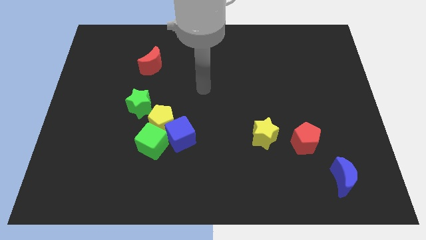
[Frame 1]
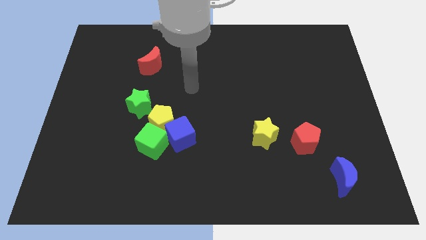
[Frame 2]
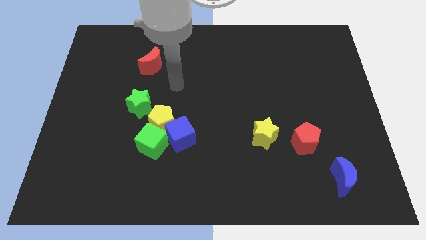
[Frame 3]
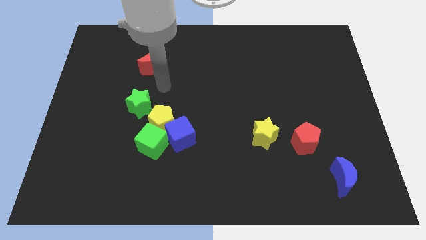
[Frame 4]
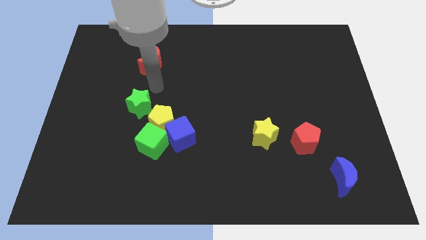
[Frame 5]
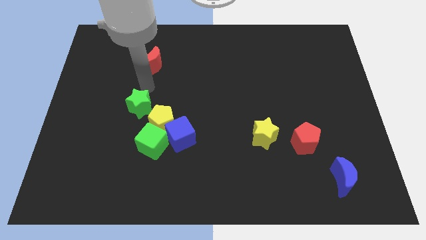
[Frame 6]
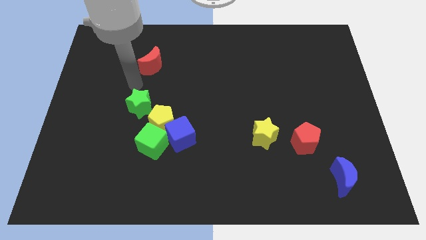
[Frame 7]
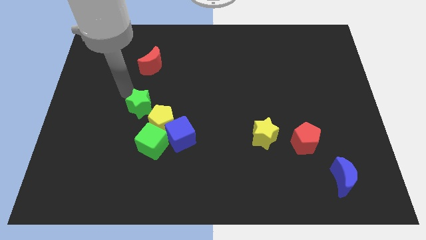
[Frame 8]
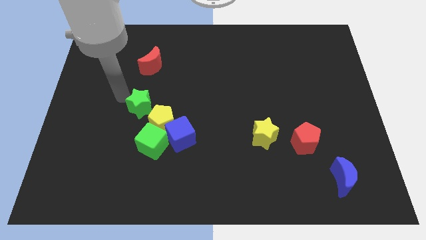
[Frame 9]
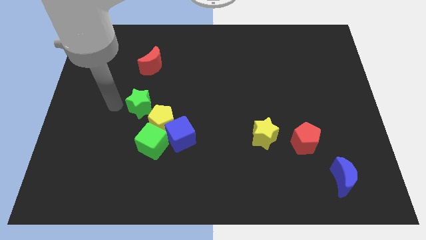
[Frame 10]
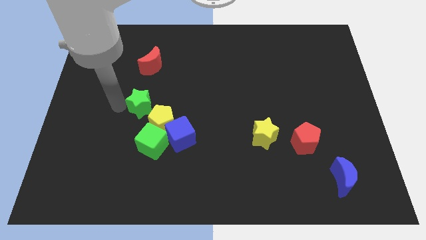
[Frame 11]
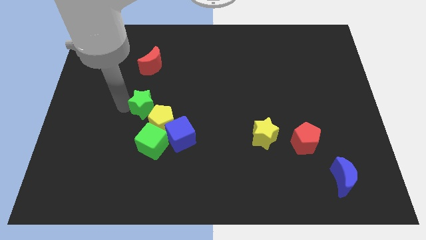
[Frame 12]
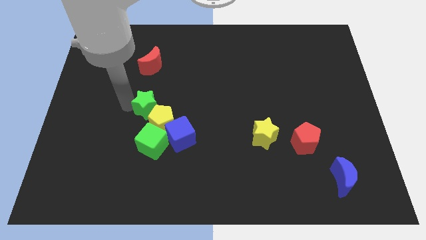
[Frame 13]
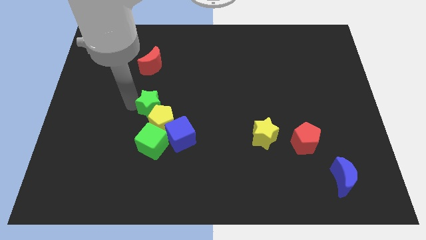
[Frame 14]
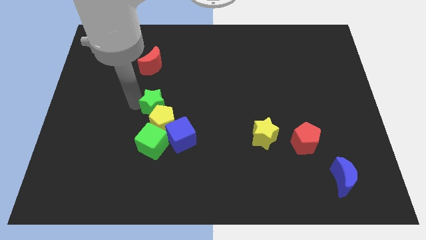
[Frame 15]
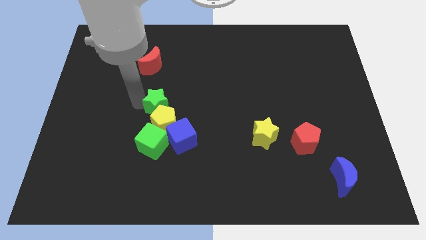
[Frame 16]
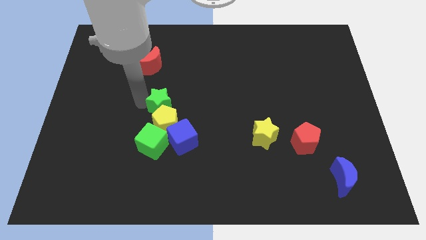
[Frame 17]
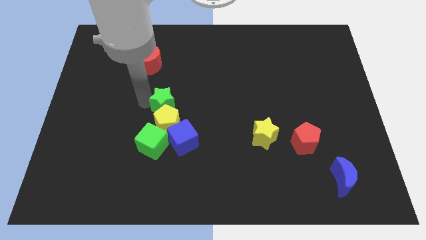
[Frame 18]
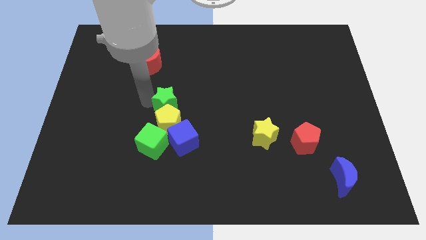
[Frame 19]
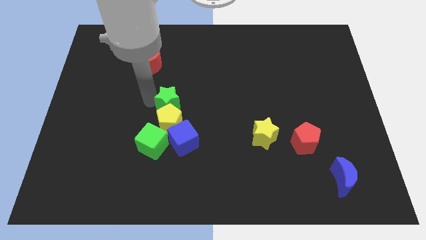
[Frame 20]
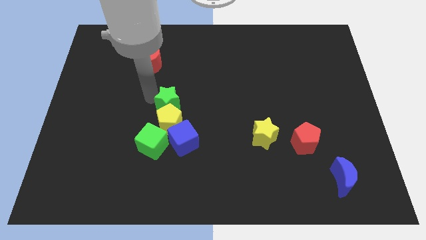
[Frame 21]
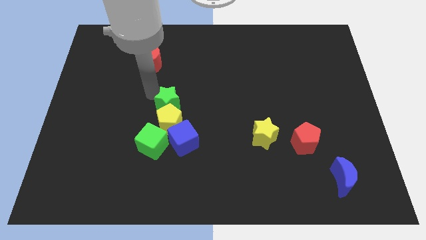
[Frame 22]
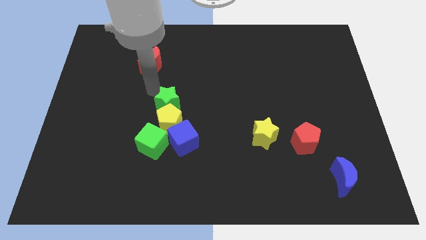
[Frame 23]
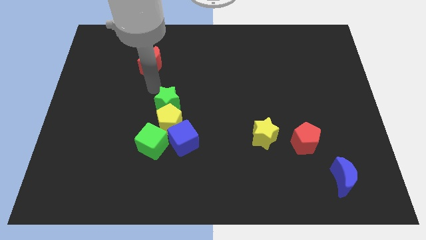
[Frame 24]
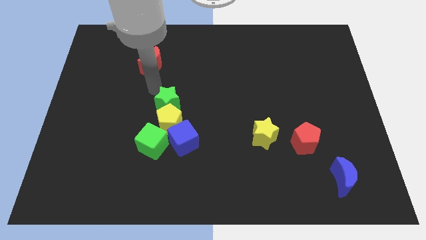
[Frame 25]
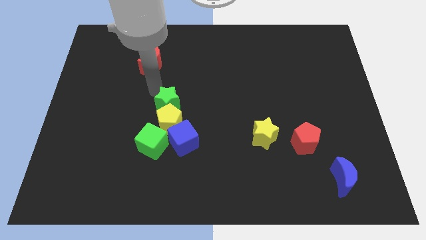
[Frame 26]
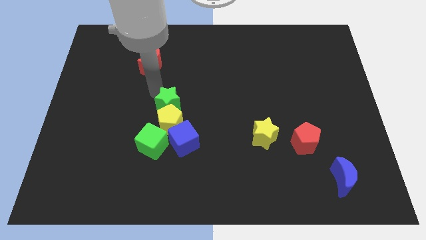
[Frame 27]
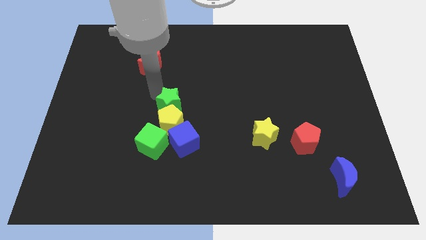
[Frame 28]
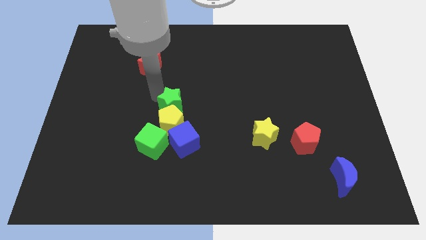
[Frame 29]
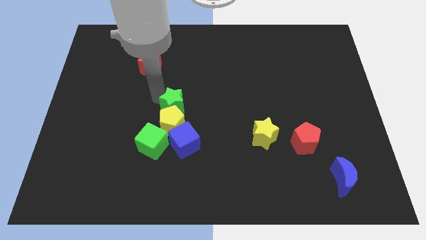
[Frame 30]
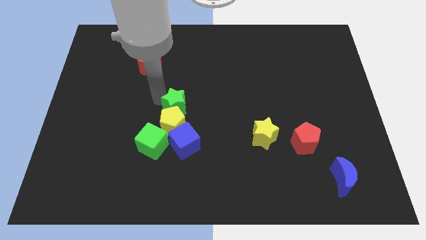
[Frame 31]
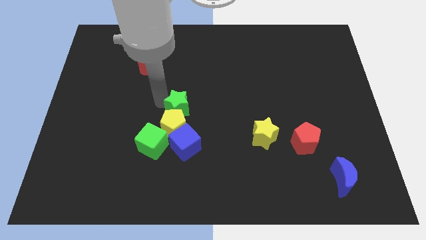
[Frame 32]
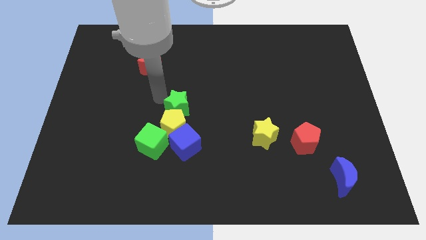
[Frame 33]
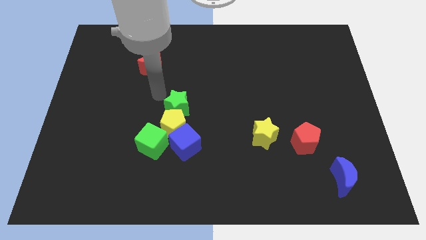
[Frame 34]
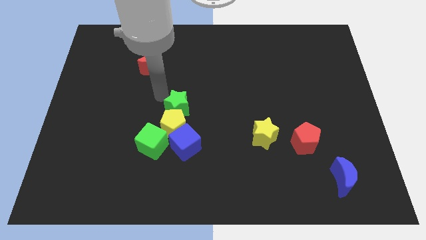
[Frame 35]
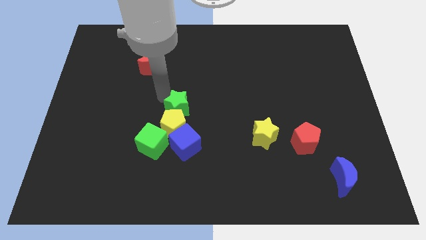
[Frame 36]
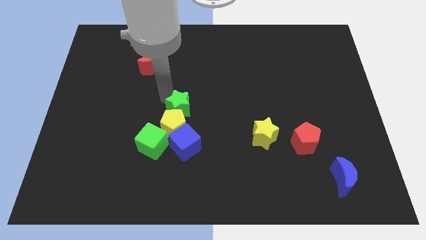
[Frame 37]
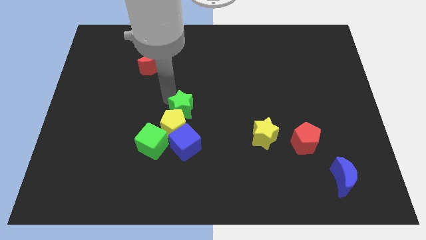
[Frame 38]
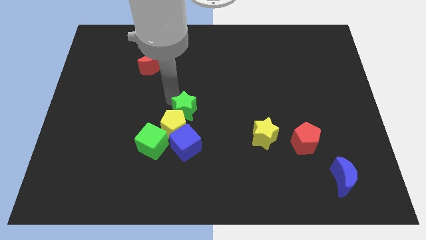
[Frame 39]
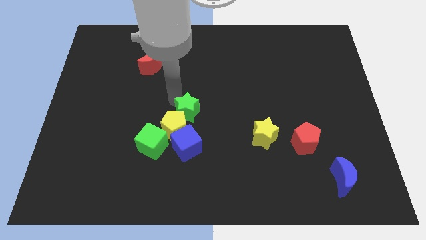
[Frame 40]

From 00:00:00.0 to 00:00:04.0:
move the green star down and to the right somewhat

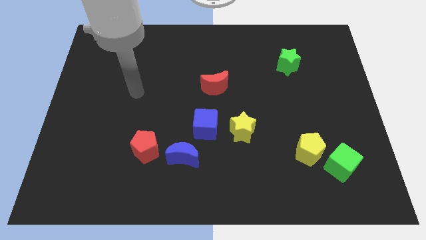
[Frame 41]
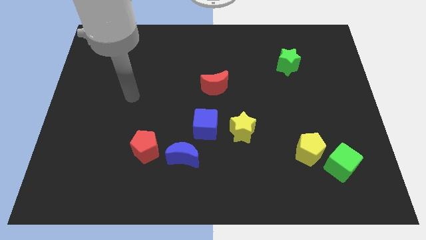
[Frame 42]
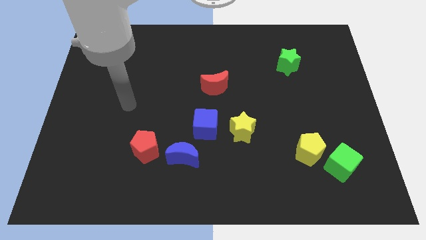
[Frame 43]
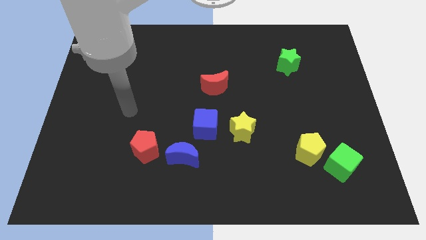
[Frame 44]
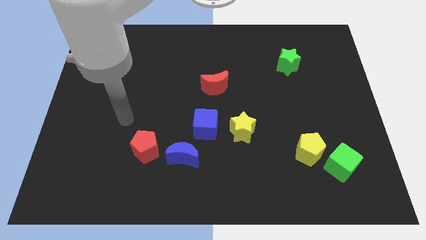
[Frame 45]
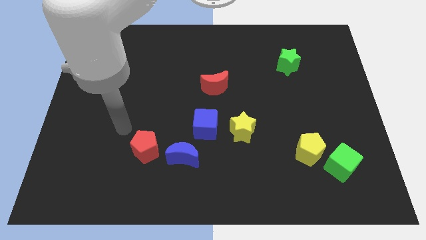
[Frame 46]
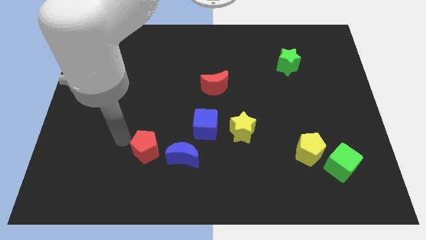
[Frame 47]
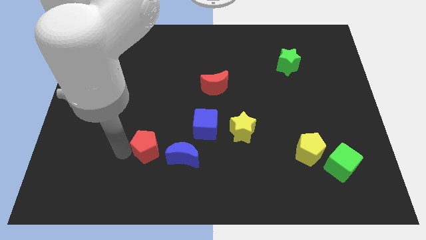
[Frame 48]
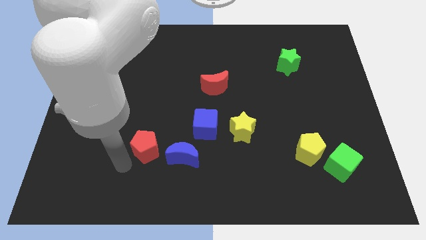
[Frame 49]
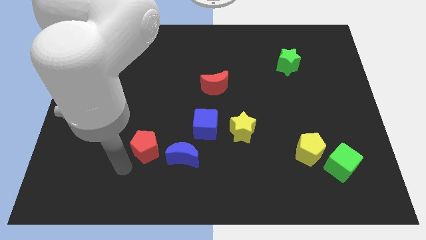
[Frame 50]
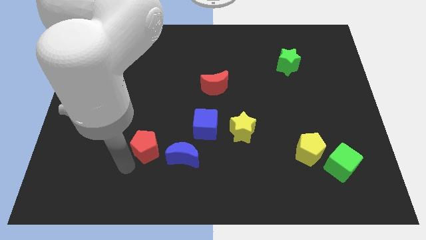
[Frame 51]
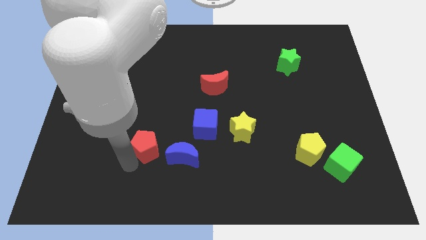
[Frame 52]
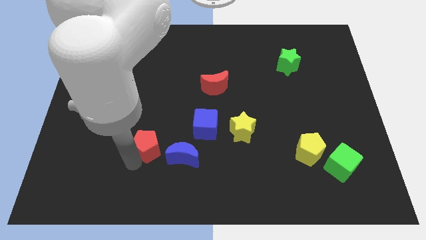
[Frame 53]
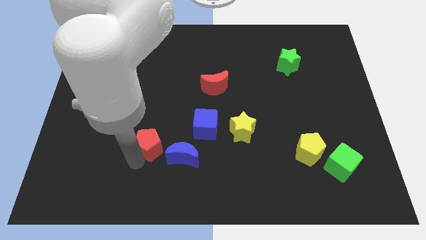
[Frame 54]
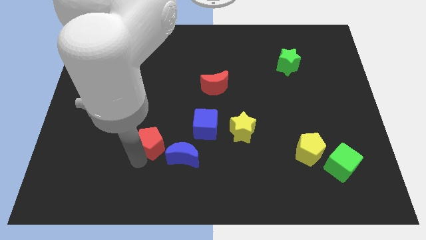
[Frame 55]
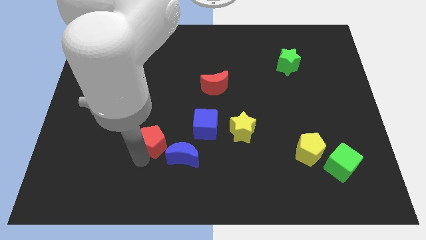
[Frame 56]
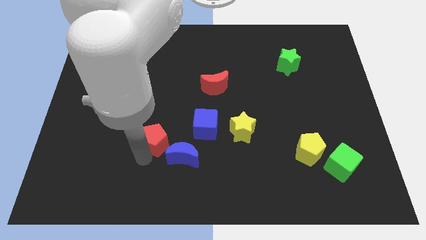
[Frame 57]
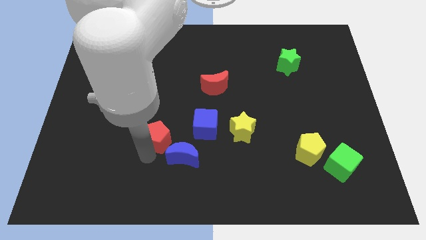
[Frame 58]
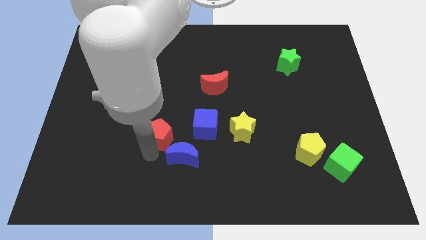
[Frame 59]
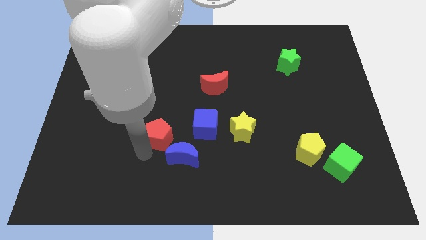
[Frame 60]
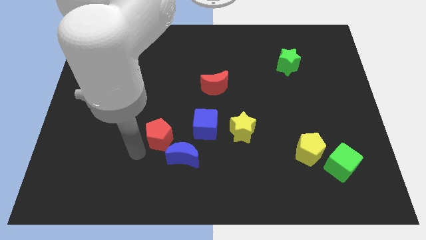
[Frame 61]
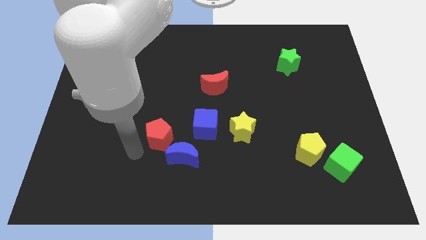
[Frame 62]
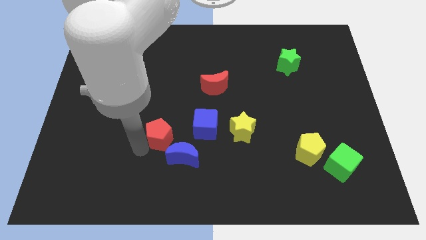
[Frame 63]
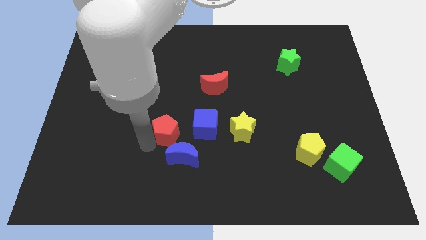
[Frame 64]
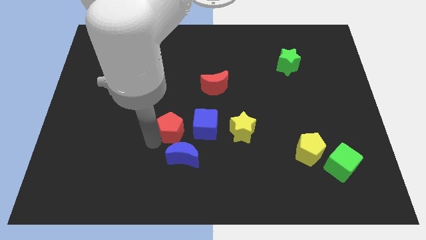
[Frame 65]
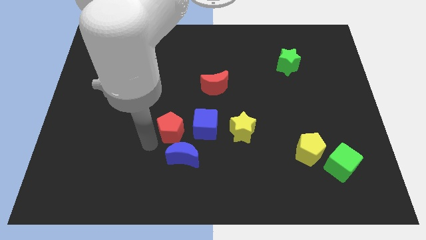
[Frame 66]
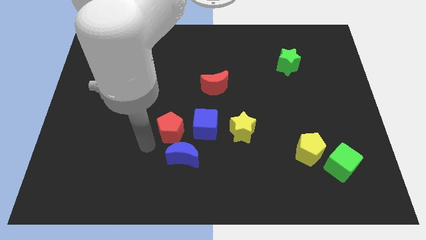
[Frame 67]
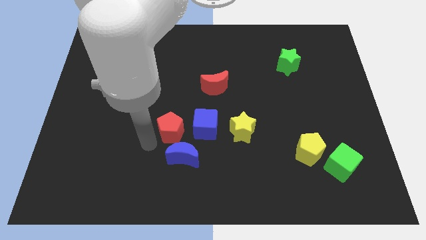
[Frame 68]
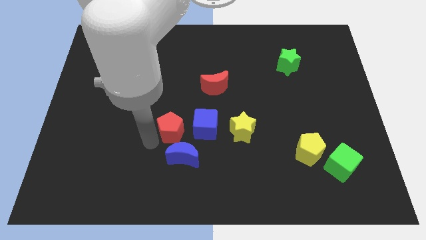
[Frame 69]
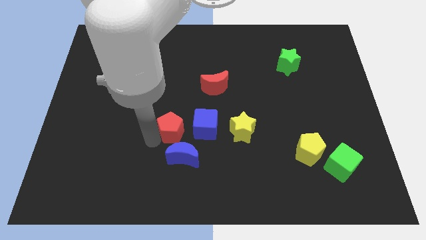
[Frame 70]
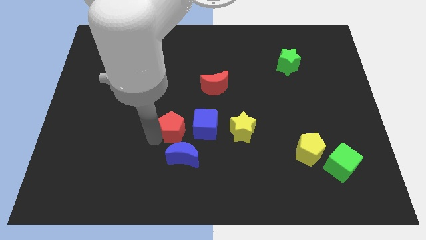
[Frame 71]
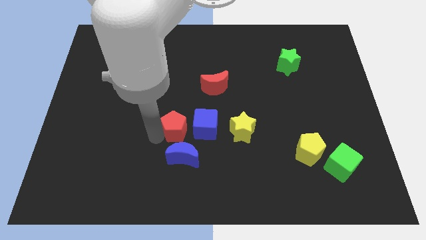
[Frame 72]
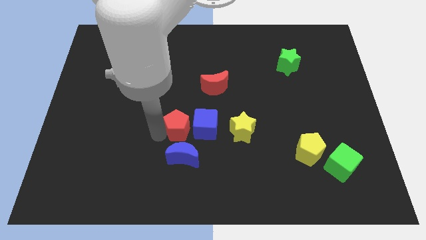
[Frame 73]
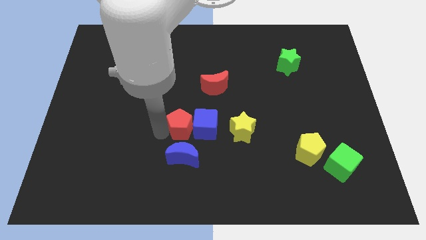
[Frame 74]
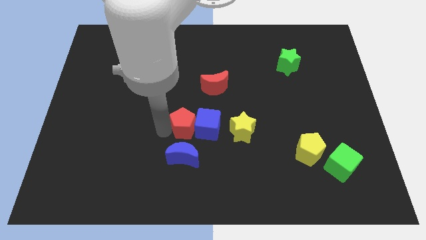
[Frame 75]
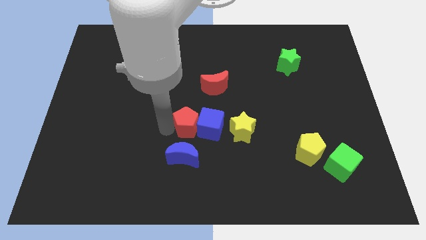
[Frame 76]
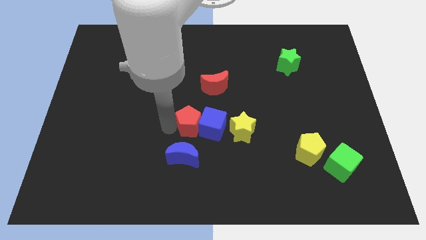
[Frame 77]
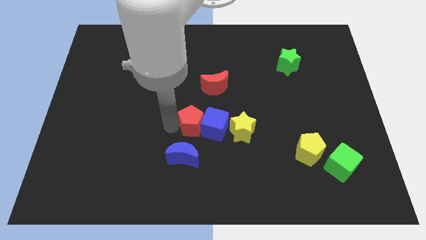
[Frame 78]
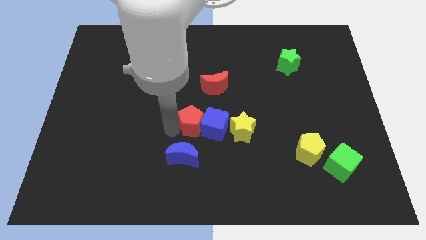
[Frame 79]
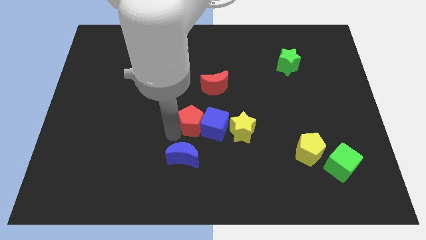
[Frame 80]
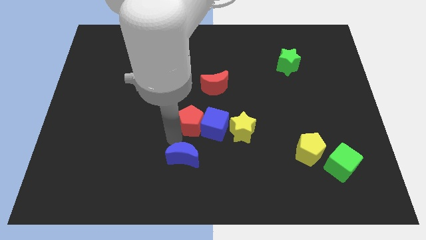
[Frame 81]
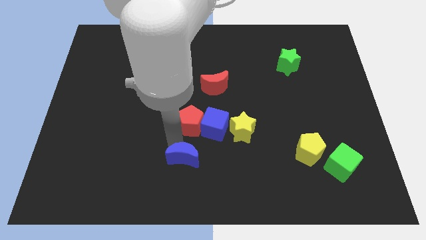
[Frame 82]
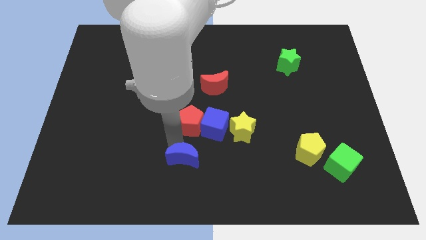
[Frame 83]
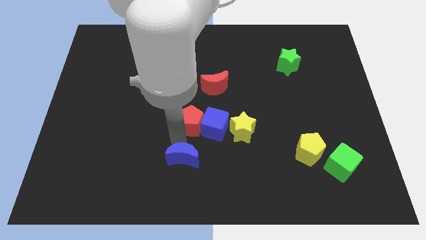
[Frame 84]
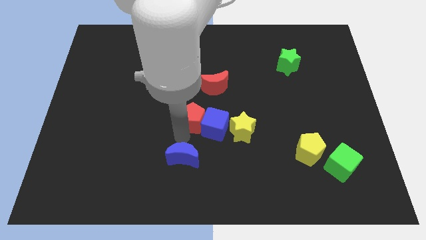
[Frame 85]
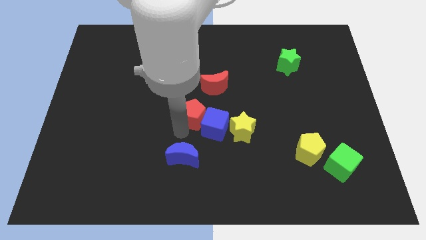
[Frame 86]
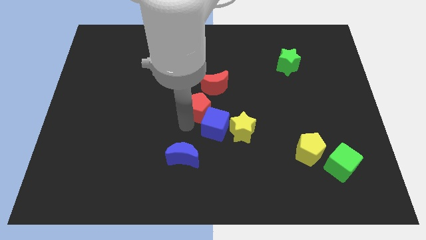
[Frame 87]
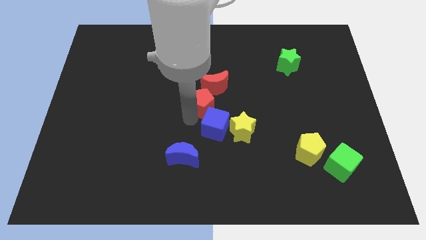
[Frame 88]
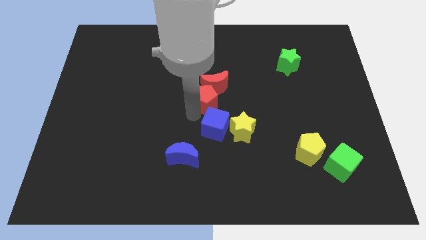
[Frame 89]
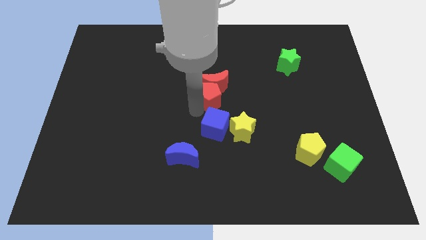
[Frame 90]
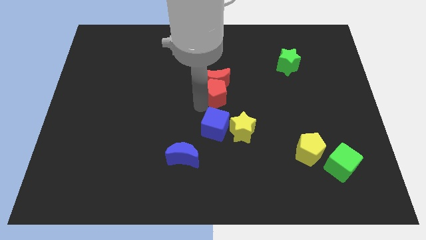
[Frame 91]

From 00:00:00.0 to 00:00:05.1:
push the red pentagon up and to the right diagonally
